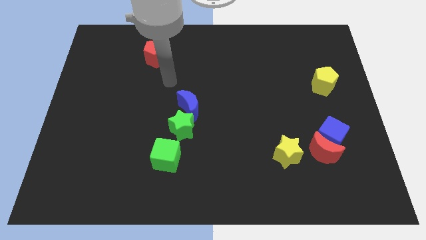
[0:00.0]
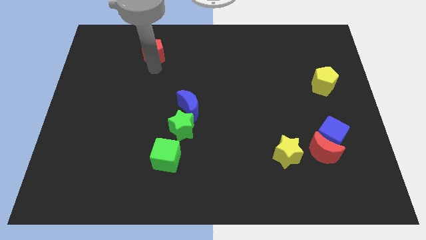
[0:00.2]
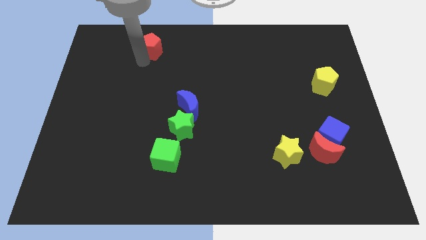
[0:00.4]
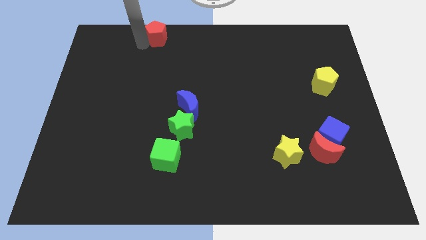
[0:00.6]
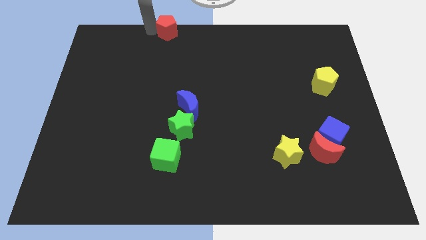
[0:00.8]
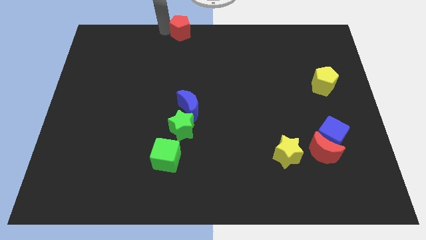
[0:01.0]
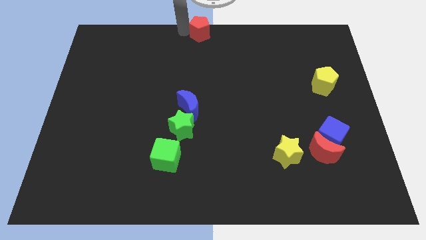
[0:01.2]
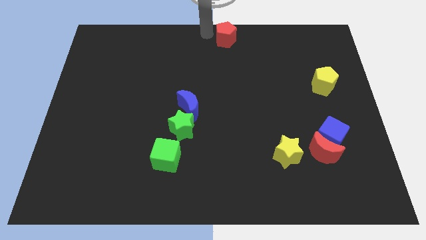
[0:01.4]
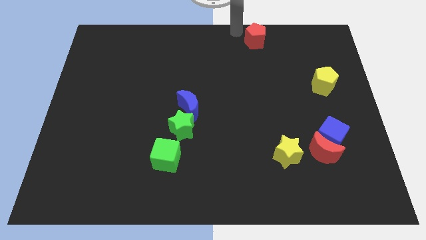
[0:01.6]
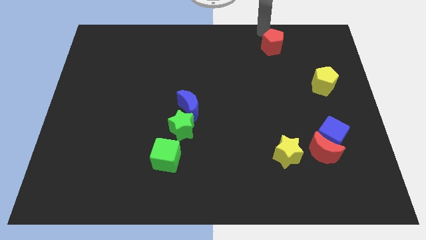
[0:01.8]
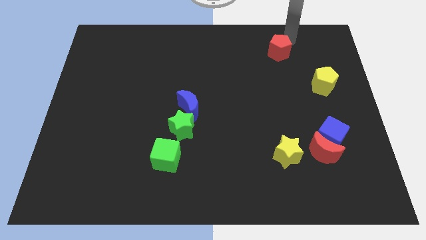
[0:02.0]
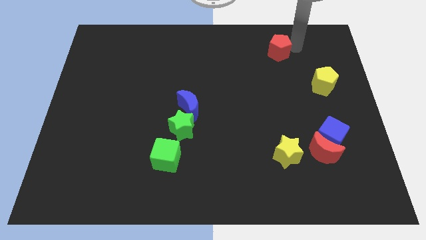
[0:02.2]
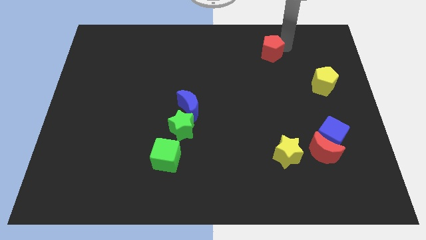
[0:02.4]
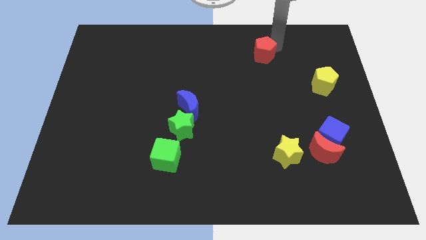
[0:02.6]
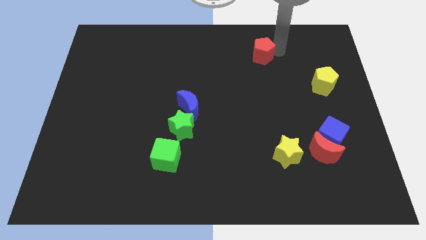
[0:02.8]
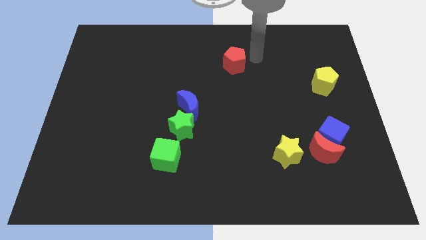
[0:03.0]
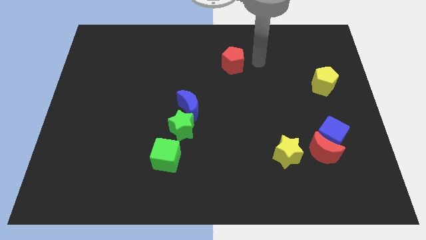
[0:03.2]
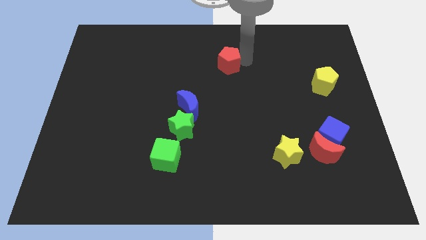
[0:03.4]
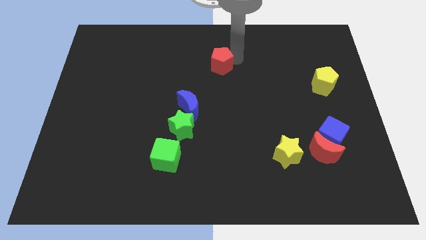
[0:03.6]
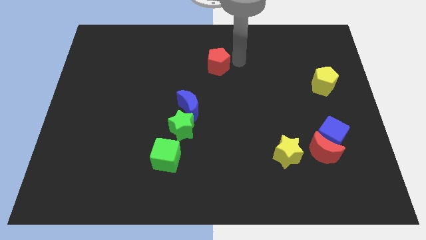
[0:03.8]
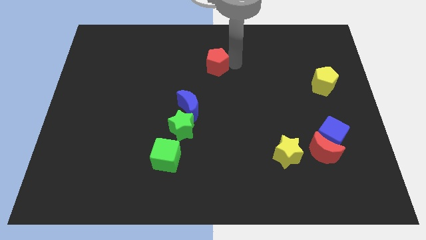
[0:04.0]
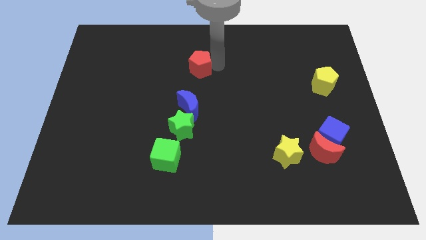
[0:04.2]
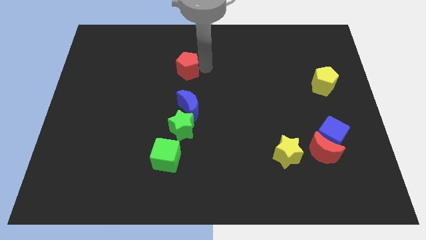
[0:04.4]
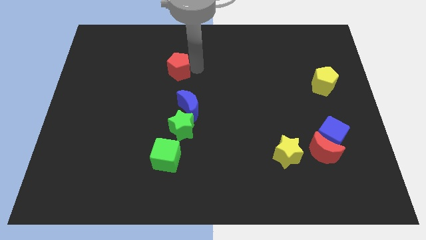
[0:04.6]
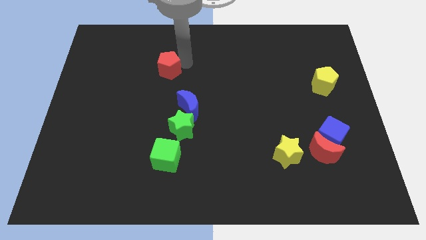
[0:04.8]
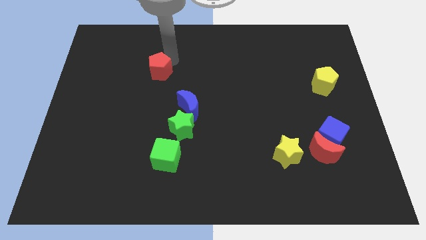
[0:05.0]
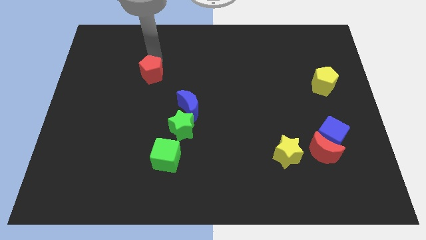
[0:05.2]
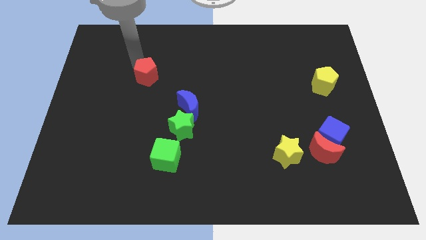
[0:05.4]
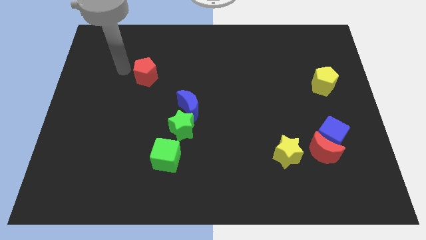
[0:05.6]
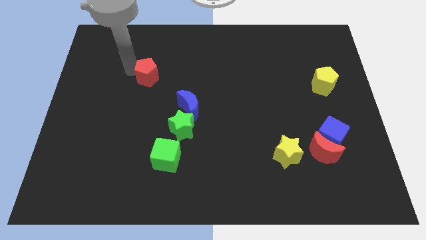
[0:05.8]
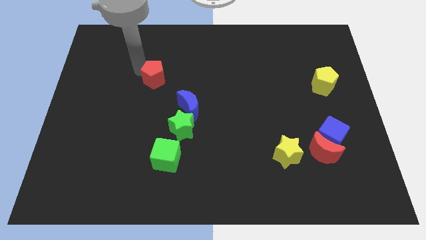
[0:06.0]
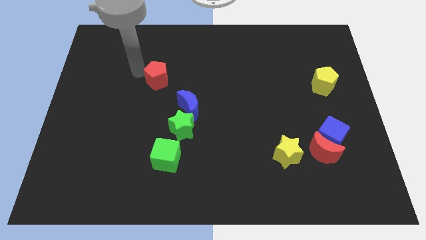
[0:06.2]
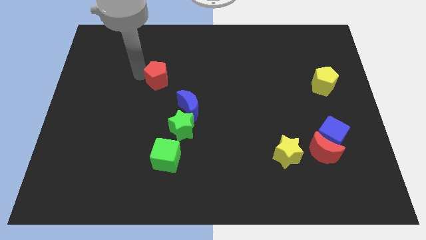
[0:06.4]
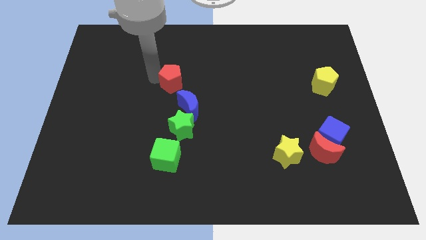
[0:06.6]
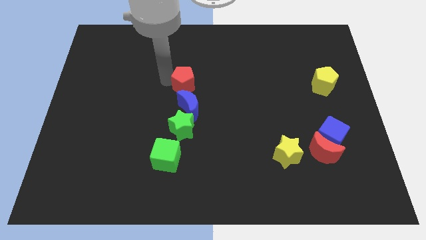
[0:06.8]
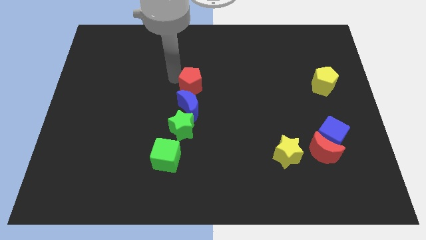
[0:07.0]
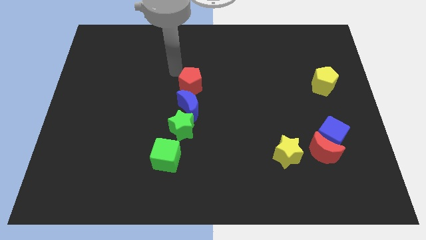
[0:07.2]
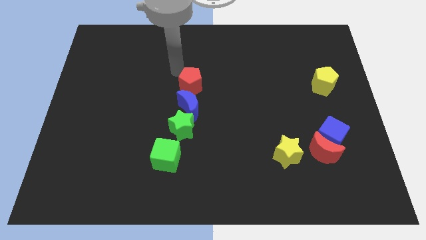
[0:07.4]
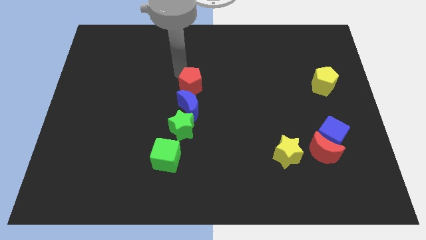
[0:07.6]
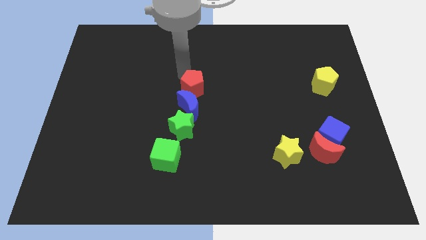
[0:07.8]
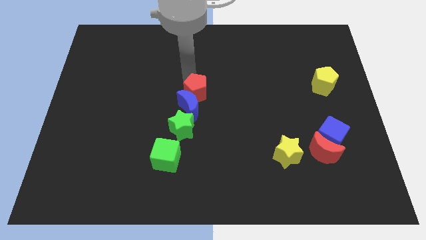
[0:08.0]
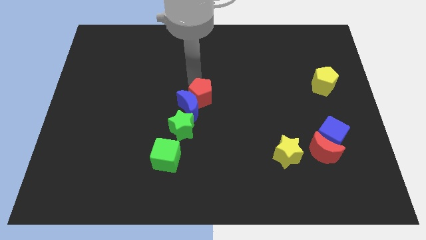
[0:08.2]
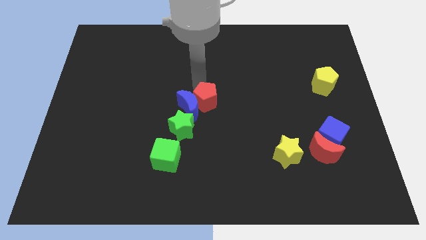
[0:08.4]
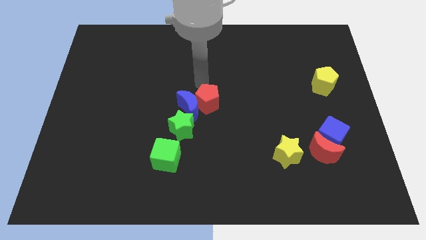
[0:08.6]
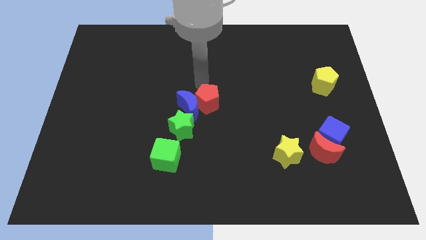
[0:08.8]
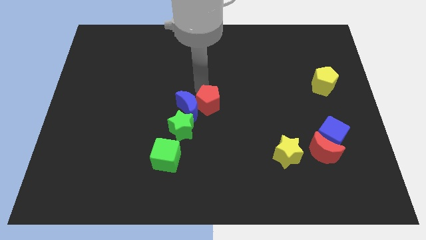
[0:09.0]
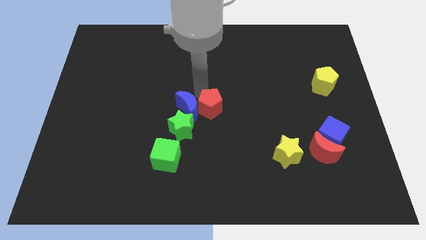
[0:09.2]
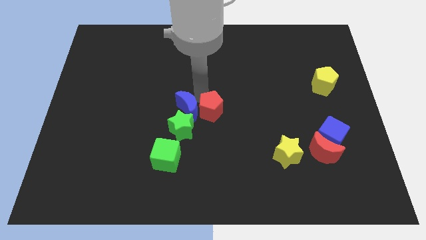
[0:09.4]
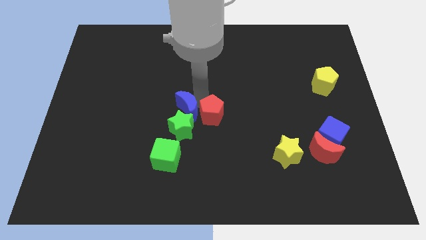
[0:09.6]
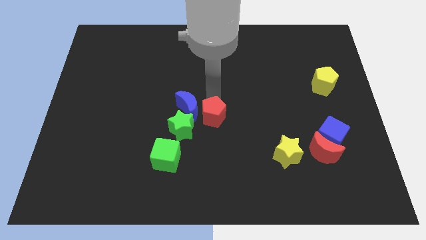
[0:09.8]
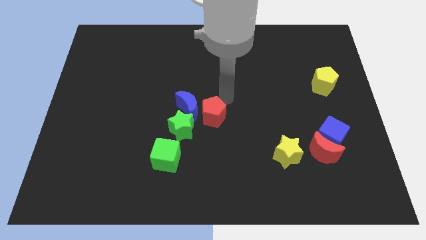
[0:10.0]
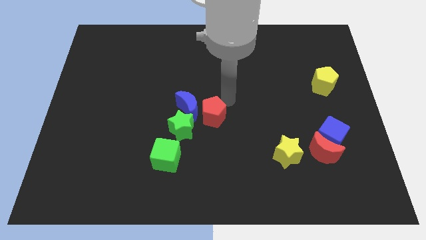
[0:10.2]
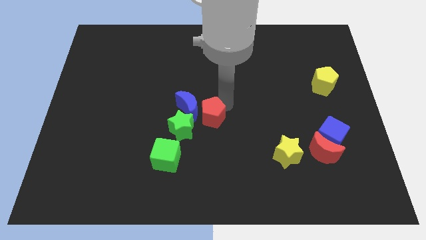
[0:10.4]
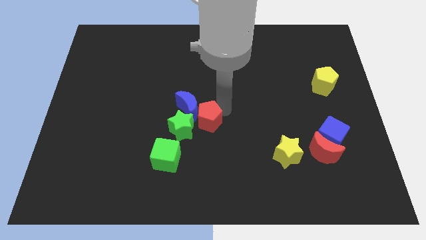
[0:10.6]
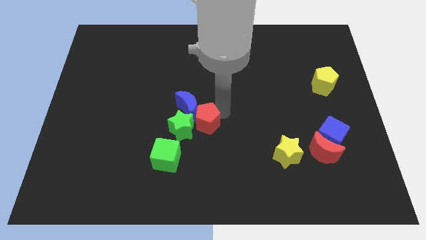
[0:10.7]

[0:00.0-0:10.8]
put the red pentagon diagonally up and to the right of the green cube

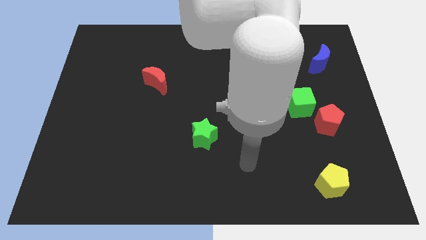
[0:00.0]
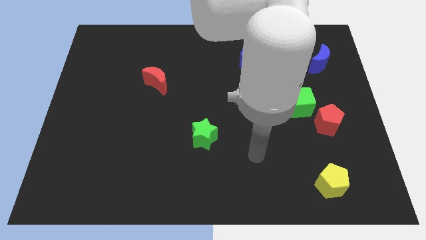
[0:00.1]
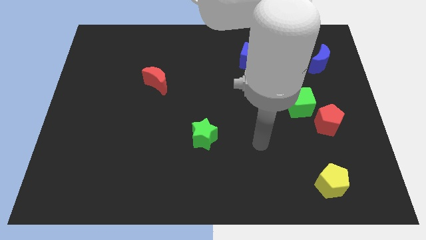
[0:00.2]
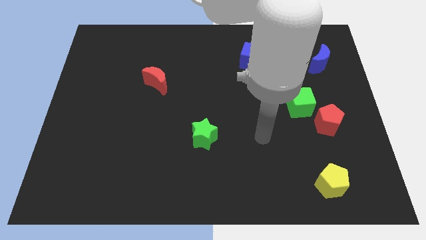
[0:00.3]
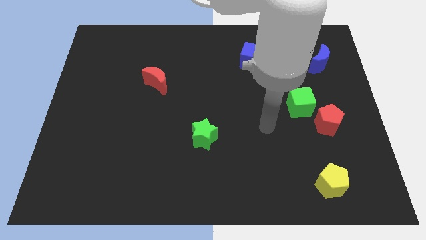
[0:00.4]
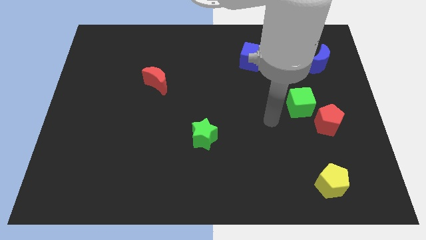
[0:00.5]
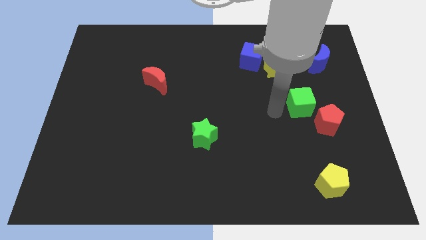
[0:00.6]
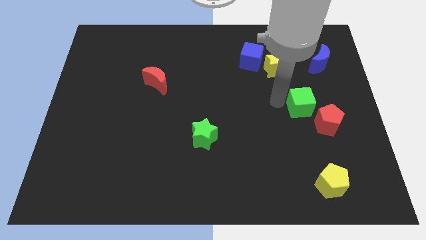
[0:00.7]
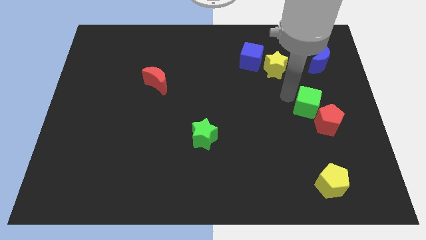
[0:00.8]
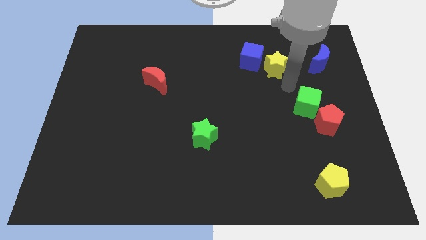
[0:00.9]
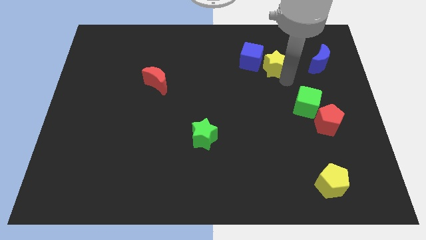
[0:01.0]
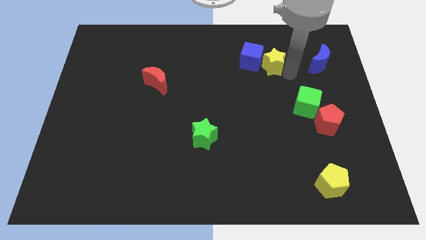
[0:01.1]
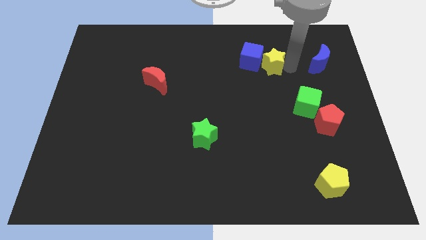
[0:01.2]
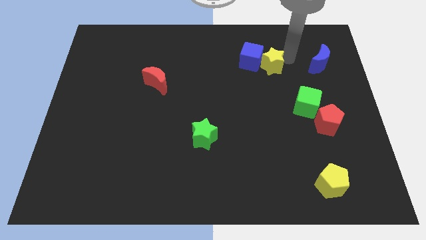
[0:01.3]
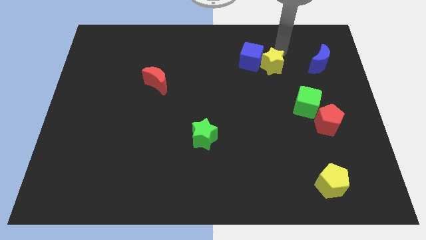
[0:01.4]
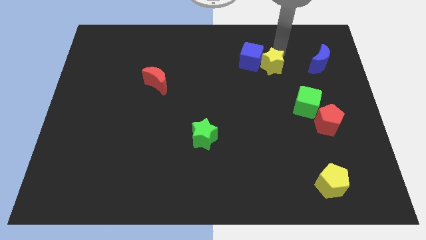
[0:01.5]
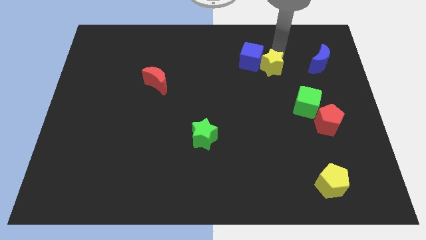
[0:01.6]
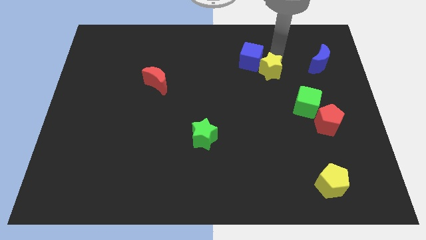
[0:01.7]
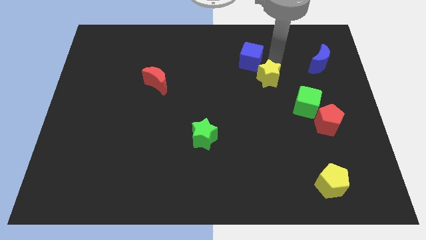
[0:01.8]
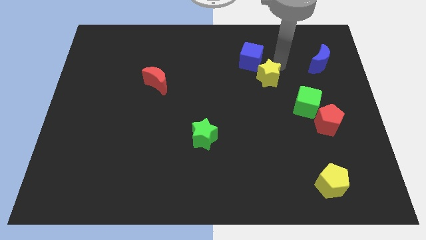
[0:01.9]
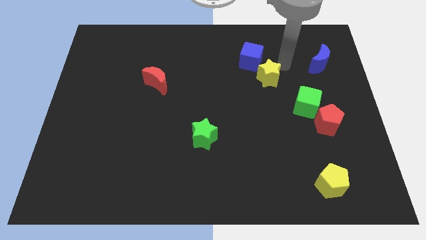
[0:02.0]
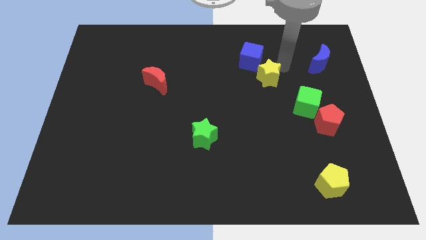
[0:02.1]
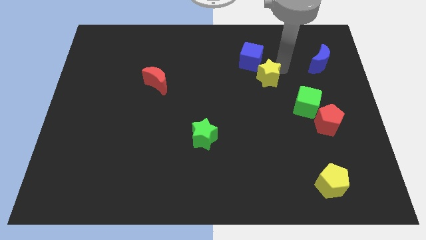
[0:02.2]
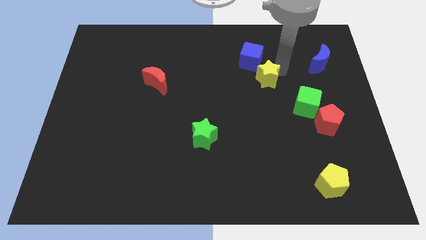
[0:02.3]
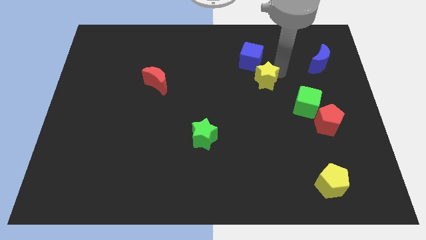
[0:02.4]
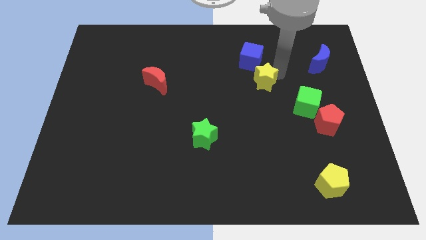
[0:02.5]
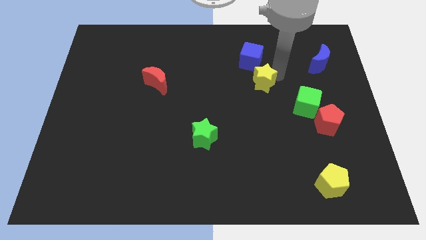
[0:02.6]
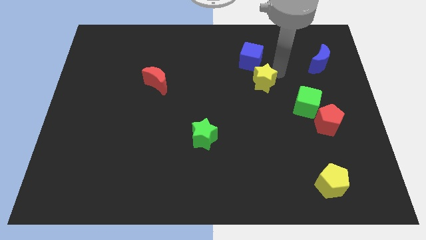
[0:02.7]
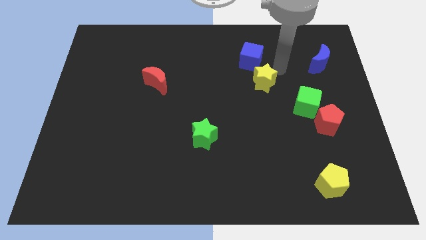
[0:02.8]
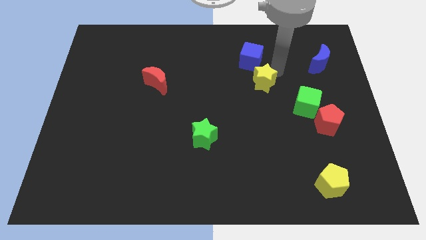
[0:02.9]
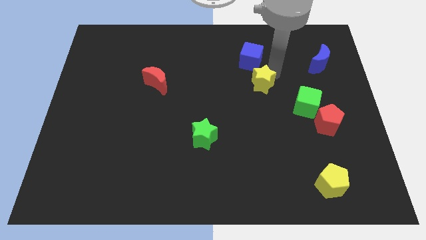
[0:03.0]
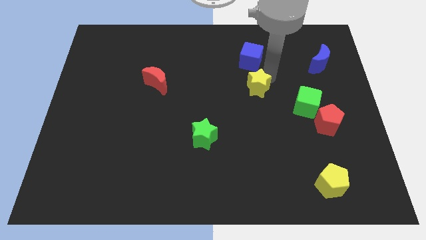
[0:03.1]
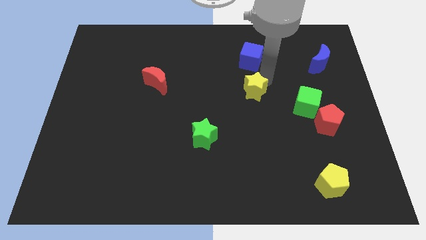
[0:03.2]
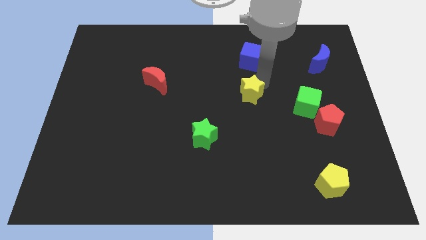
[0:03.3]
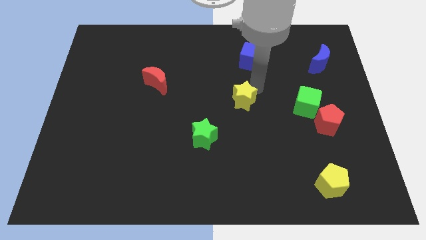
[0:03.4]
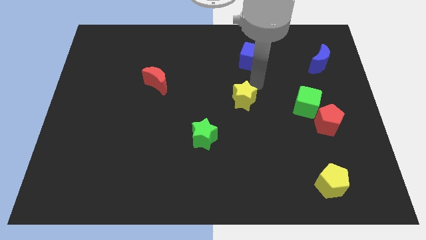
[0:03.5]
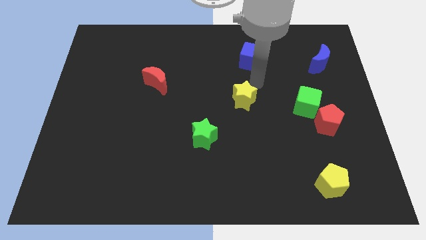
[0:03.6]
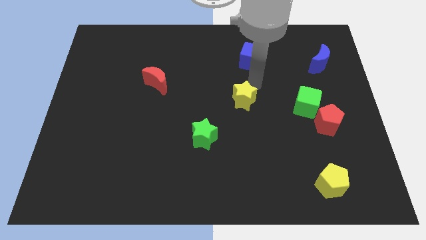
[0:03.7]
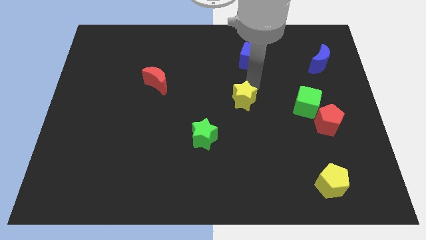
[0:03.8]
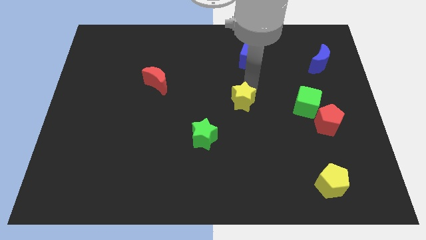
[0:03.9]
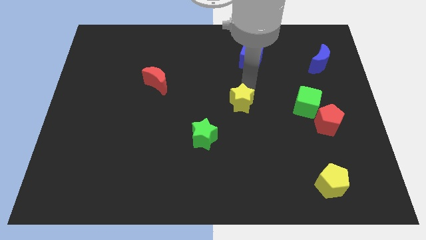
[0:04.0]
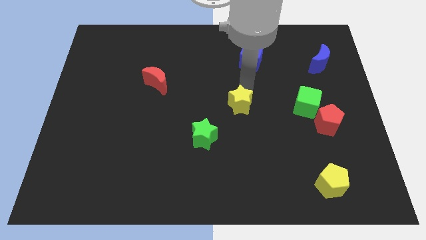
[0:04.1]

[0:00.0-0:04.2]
slide the yellow star to the top right of the green star
